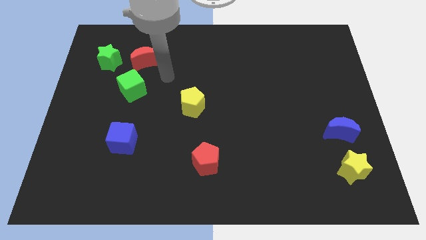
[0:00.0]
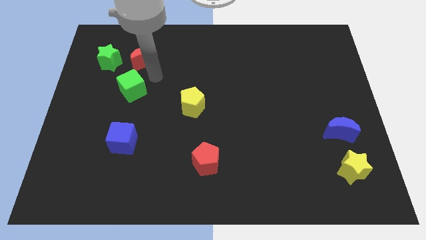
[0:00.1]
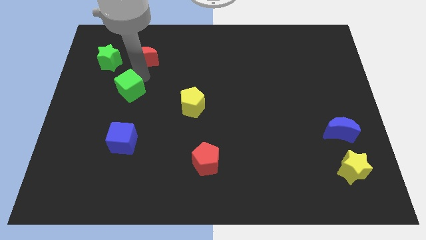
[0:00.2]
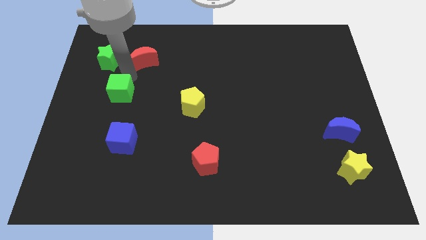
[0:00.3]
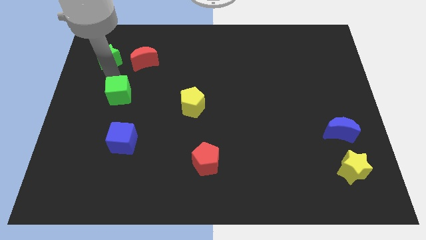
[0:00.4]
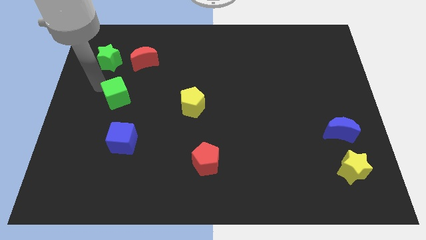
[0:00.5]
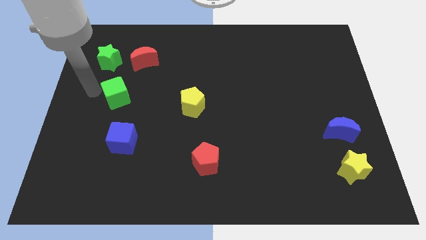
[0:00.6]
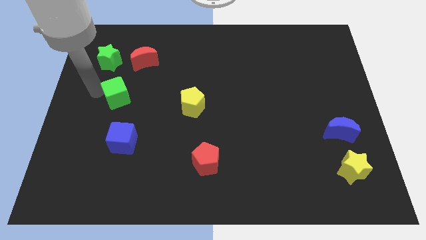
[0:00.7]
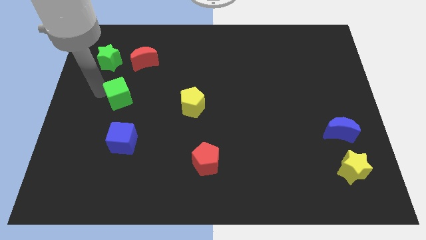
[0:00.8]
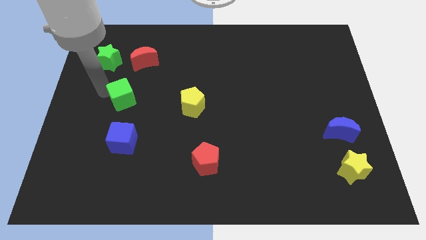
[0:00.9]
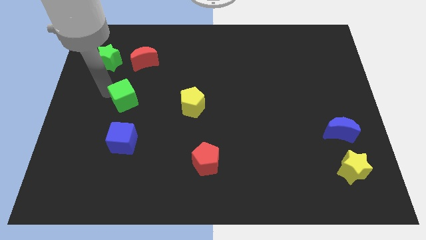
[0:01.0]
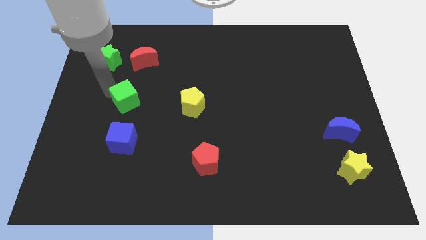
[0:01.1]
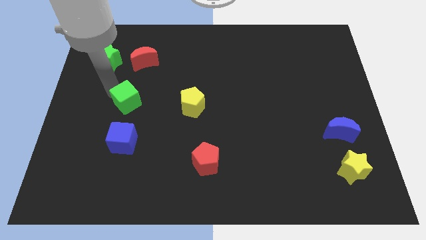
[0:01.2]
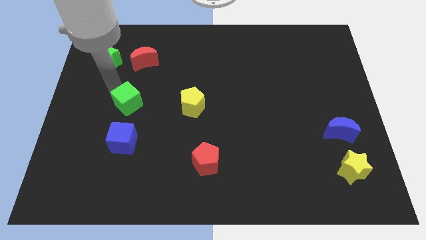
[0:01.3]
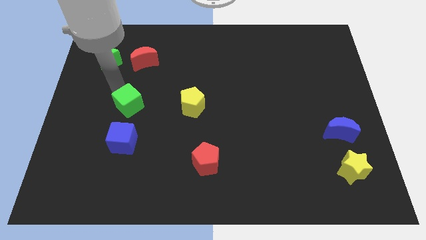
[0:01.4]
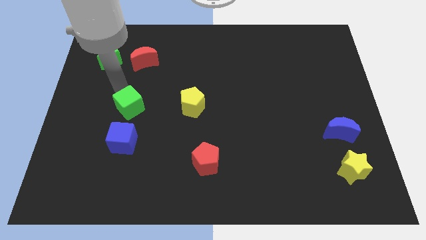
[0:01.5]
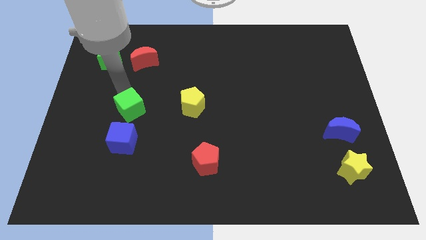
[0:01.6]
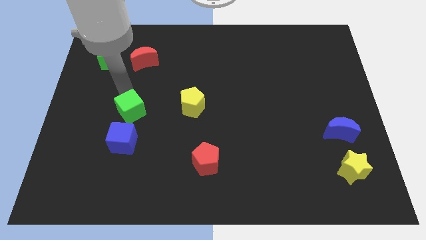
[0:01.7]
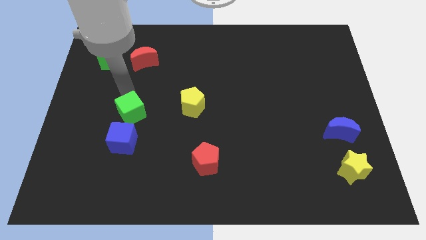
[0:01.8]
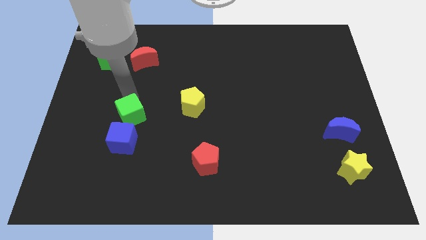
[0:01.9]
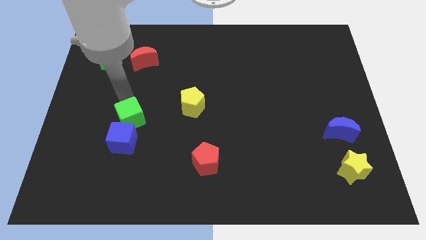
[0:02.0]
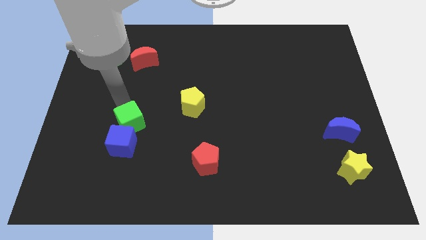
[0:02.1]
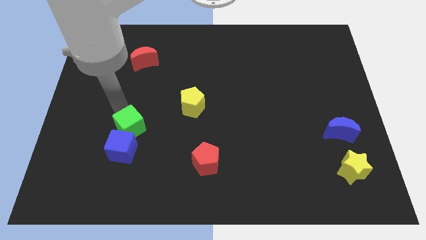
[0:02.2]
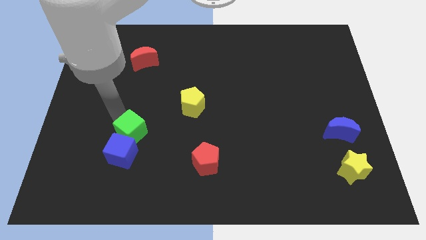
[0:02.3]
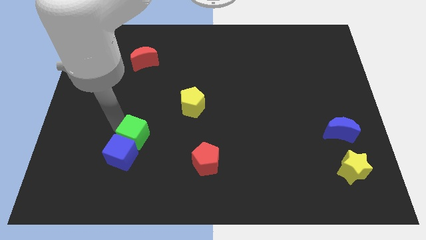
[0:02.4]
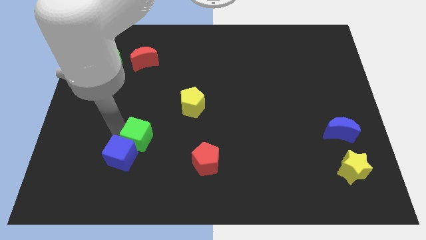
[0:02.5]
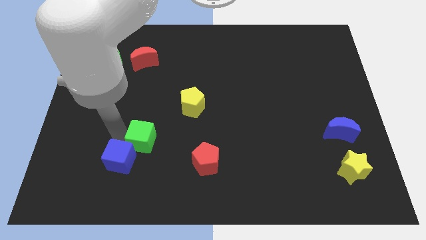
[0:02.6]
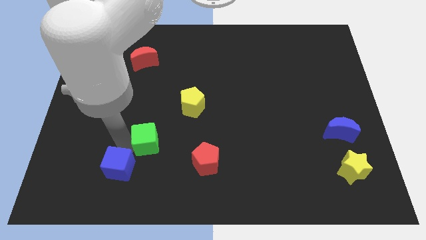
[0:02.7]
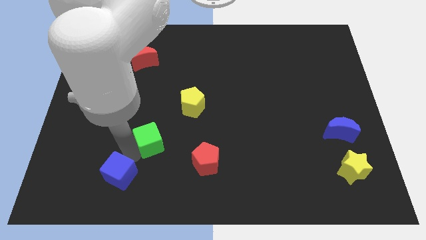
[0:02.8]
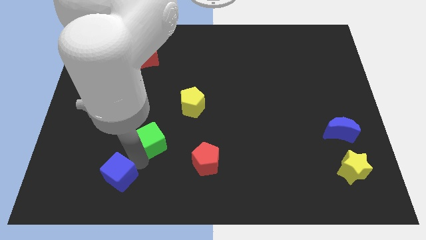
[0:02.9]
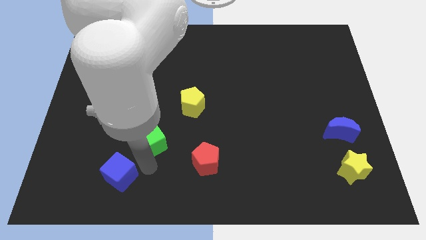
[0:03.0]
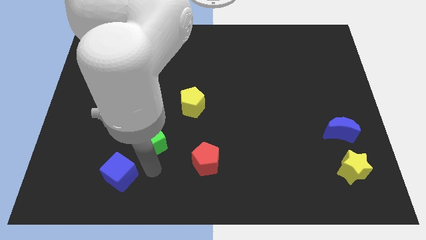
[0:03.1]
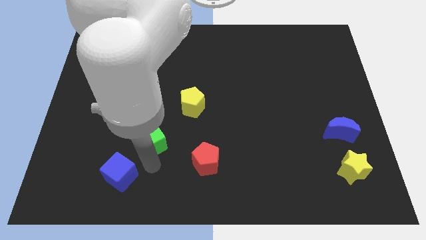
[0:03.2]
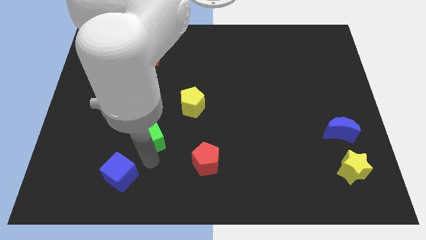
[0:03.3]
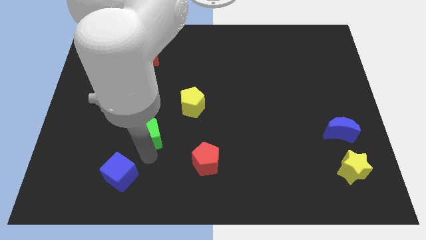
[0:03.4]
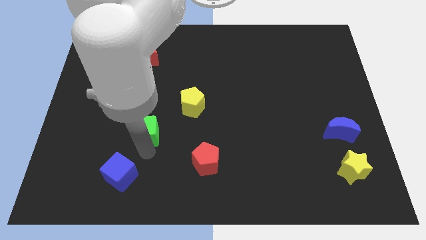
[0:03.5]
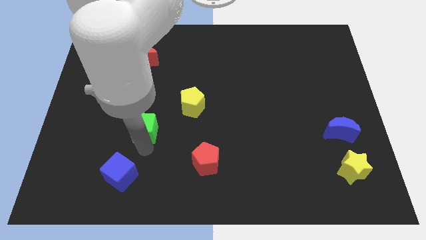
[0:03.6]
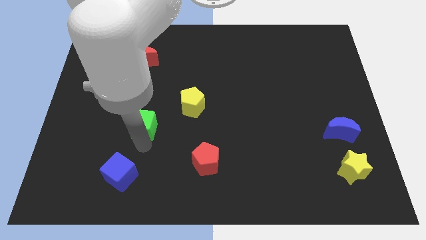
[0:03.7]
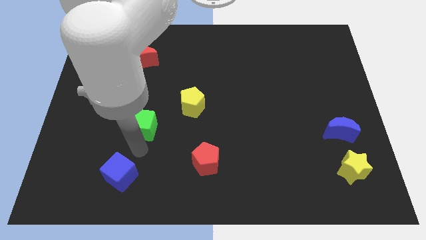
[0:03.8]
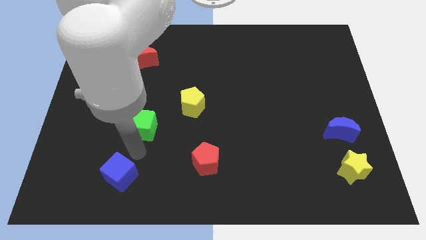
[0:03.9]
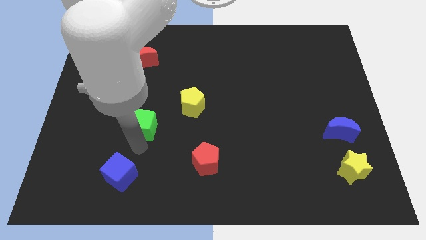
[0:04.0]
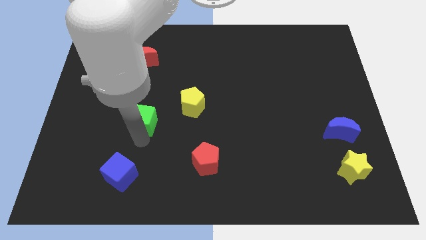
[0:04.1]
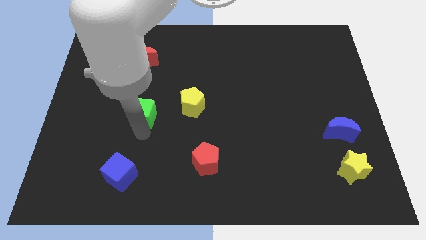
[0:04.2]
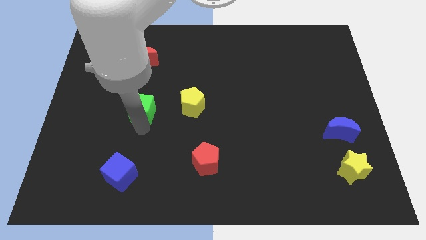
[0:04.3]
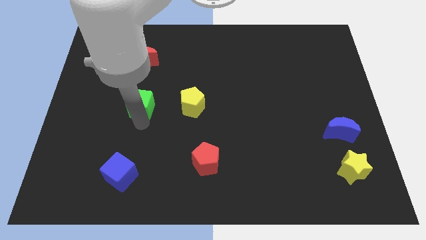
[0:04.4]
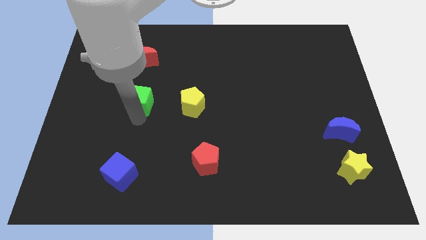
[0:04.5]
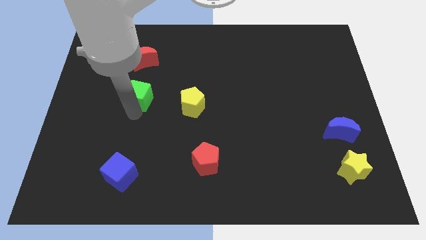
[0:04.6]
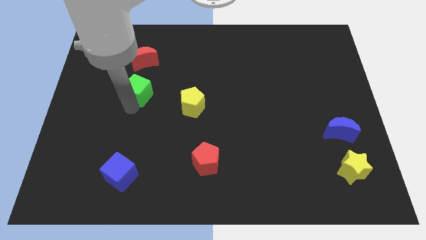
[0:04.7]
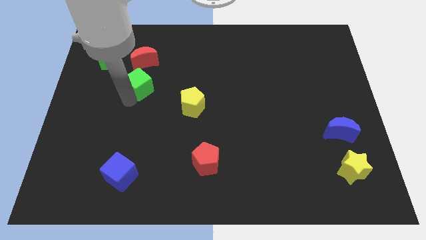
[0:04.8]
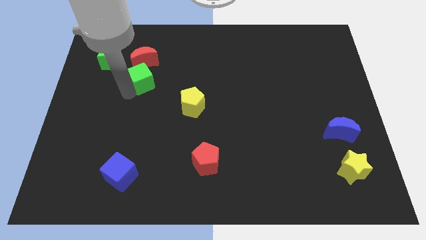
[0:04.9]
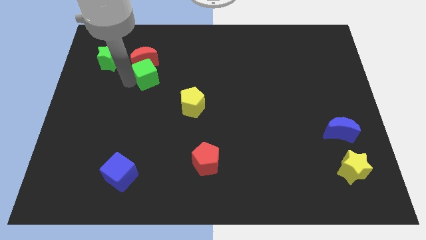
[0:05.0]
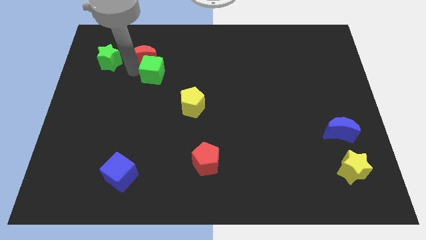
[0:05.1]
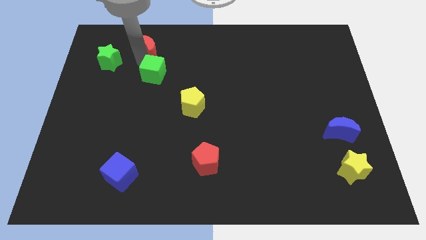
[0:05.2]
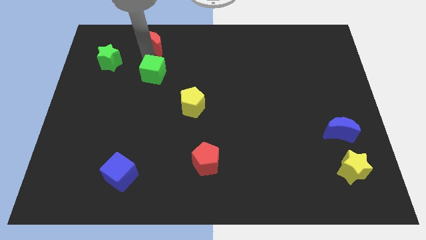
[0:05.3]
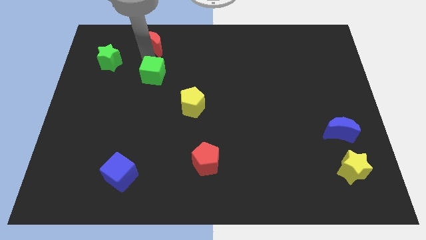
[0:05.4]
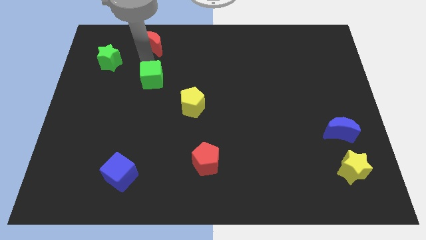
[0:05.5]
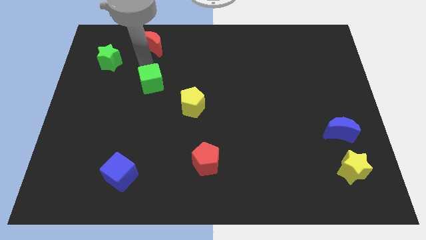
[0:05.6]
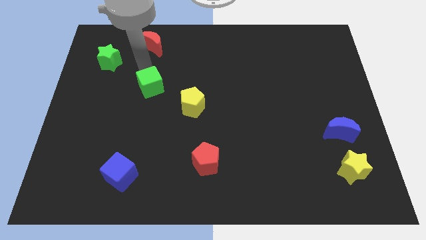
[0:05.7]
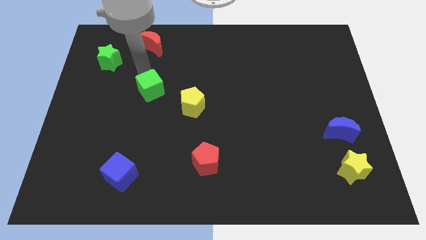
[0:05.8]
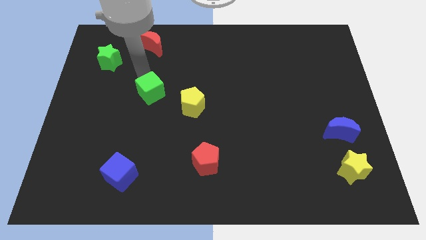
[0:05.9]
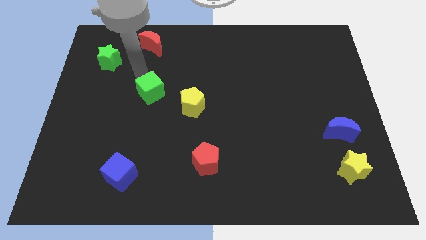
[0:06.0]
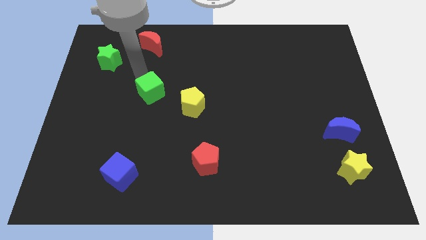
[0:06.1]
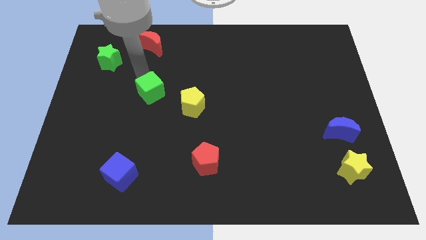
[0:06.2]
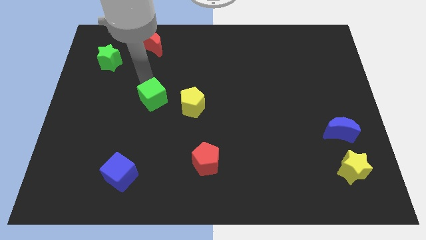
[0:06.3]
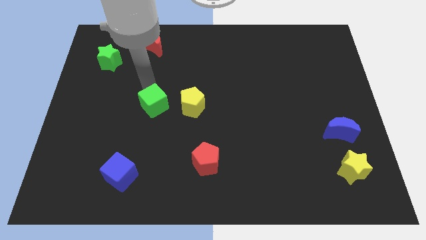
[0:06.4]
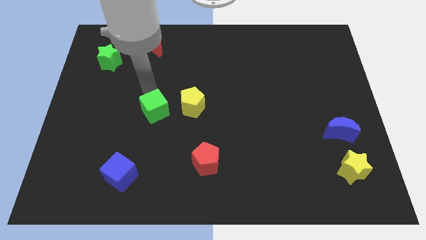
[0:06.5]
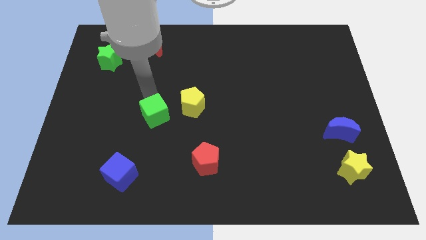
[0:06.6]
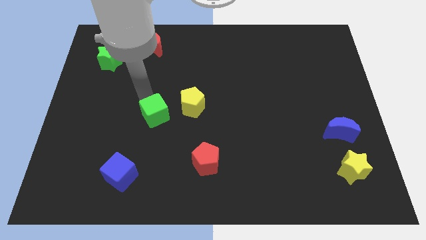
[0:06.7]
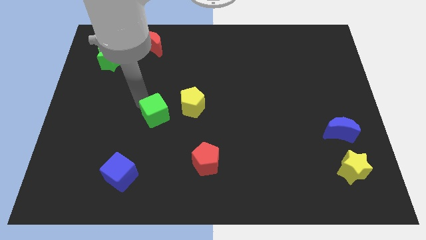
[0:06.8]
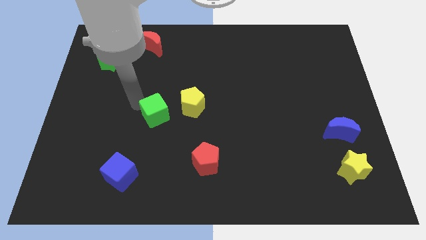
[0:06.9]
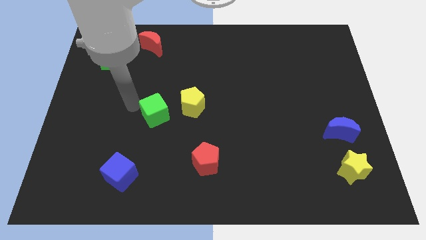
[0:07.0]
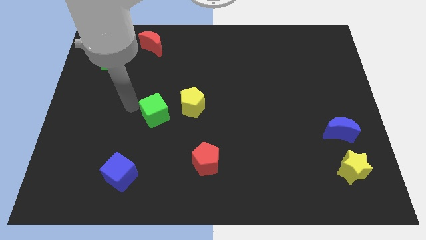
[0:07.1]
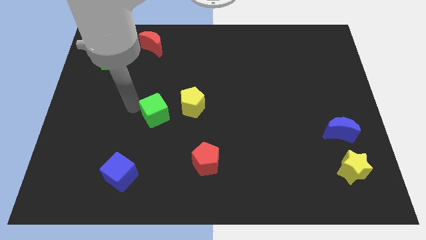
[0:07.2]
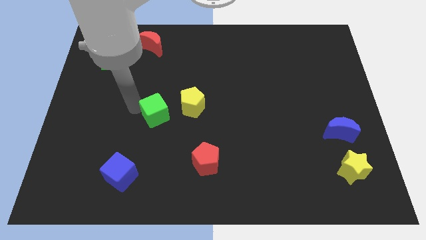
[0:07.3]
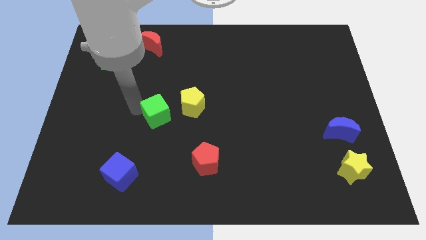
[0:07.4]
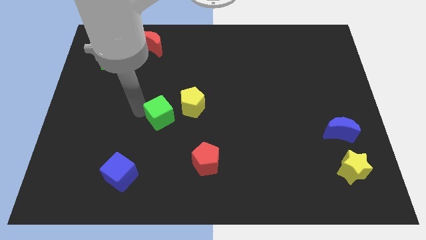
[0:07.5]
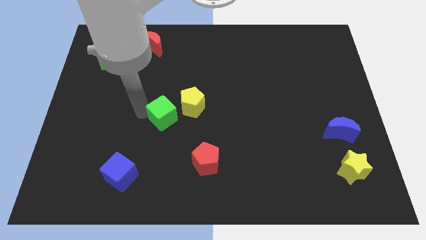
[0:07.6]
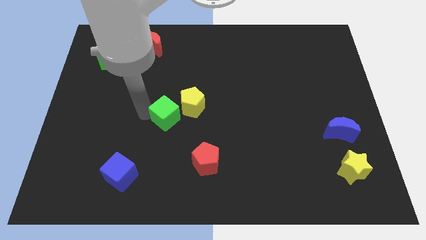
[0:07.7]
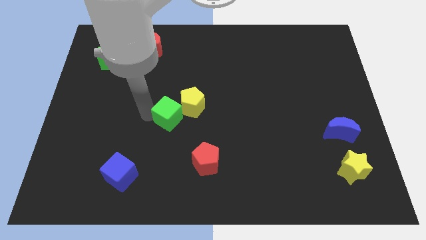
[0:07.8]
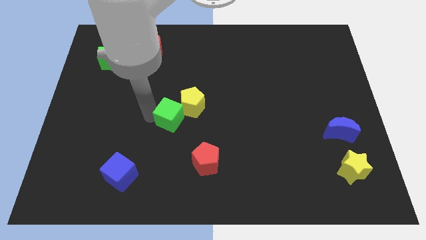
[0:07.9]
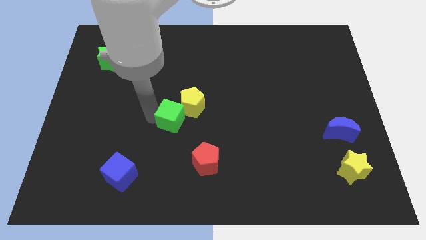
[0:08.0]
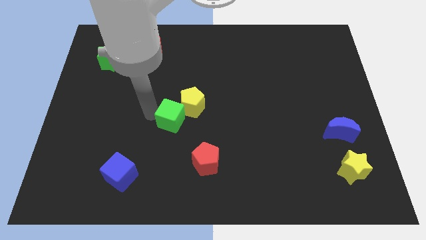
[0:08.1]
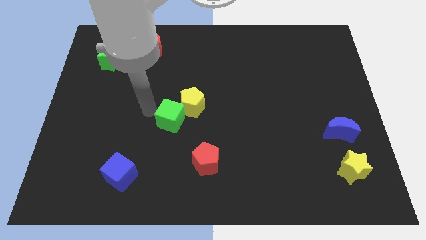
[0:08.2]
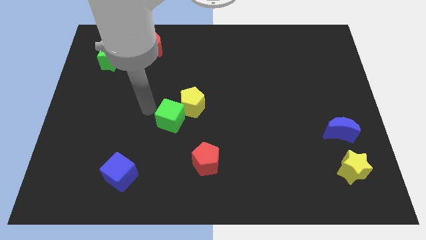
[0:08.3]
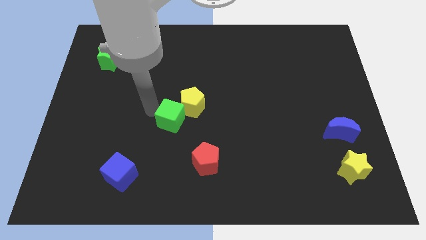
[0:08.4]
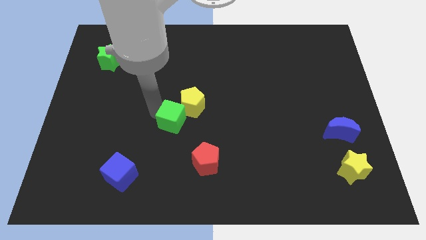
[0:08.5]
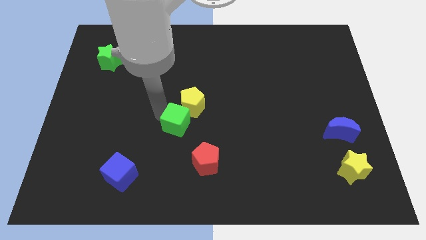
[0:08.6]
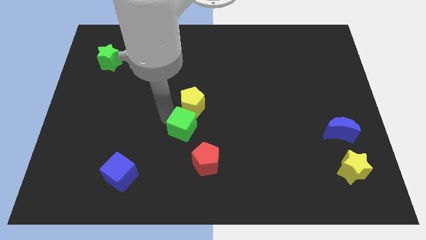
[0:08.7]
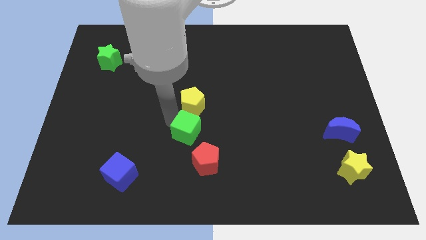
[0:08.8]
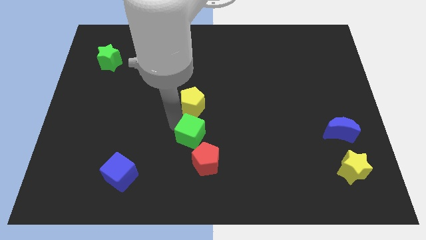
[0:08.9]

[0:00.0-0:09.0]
move the green cube downwards and right
